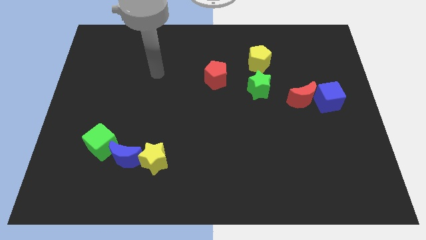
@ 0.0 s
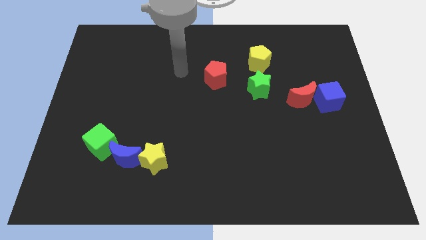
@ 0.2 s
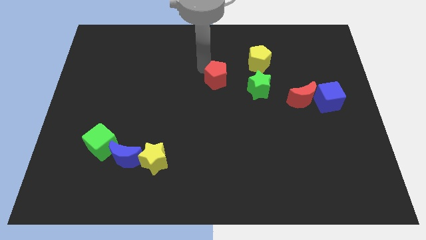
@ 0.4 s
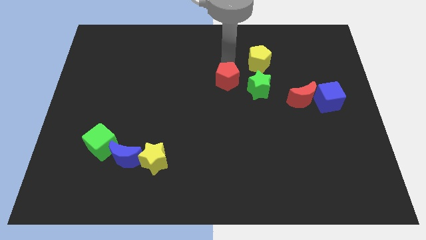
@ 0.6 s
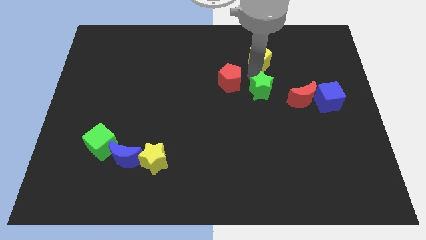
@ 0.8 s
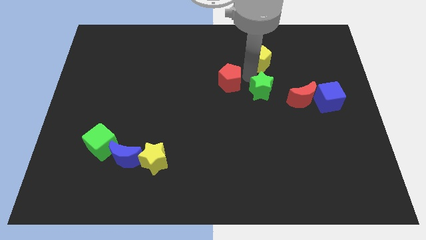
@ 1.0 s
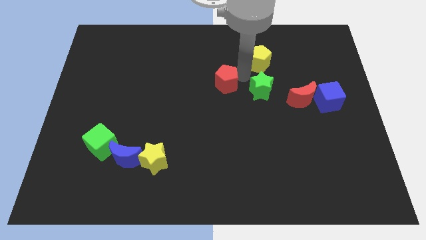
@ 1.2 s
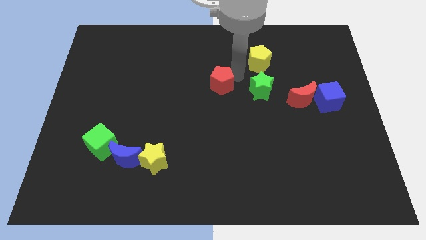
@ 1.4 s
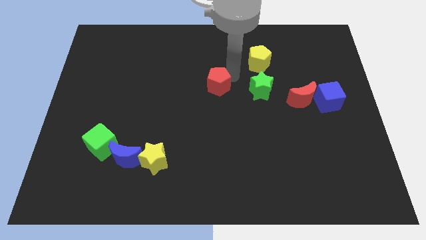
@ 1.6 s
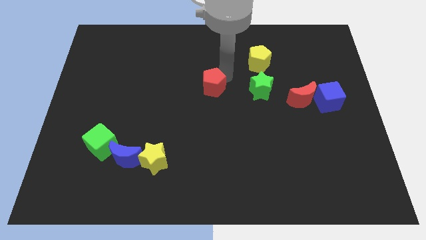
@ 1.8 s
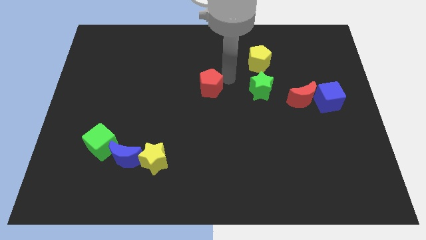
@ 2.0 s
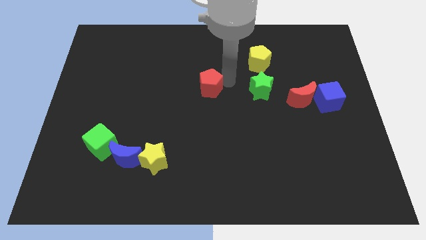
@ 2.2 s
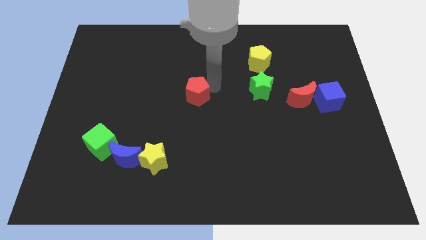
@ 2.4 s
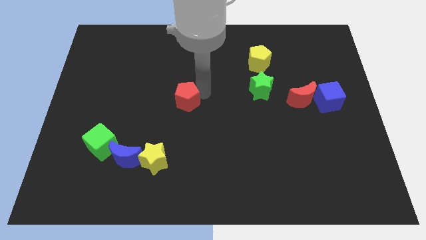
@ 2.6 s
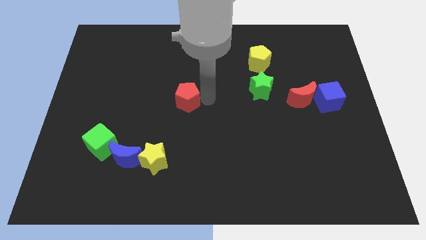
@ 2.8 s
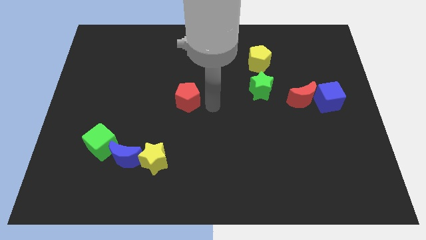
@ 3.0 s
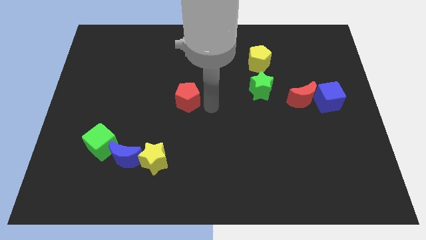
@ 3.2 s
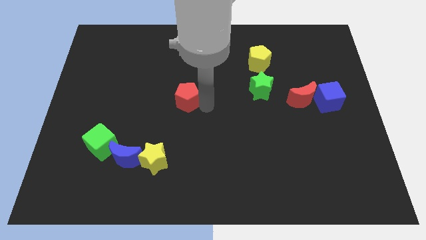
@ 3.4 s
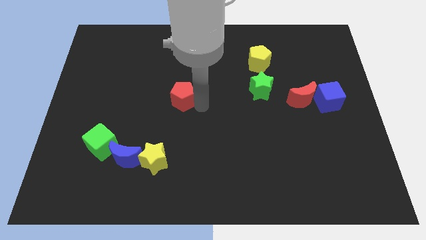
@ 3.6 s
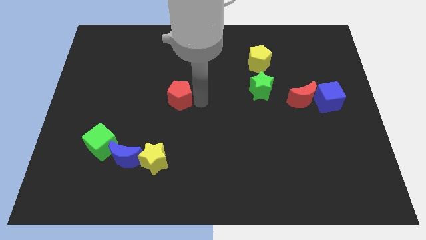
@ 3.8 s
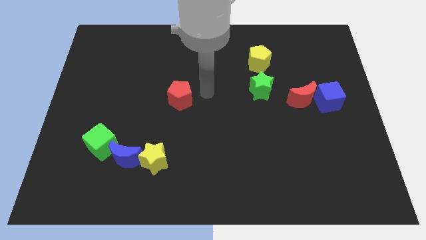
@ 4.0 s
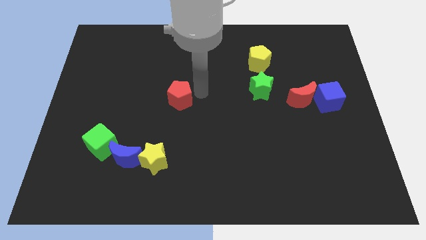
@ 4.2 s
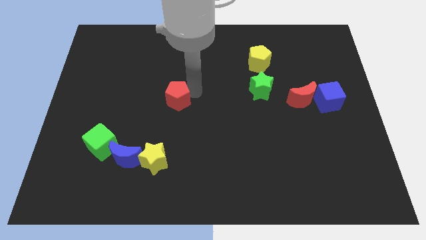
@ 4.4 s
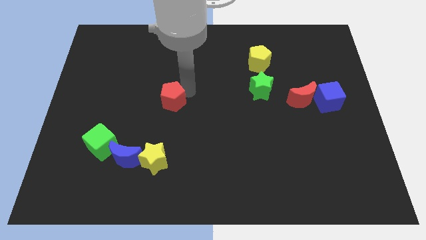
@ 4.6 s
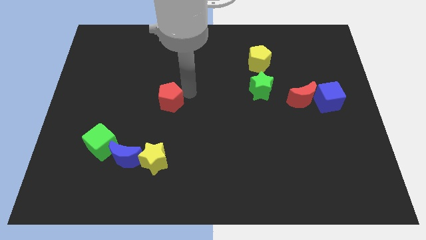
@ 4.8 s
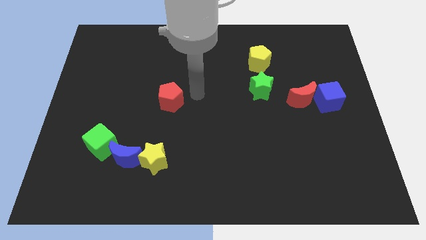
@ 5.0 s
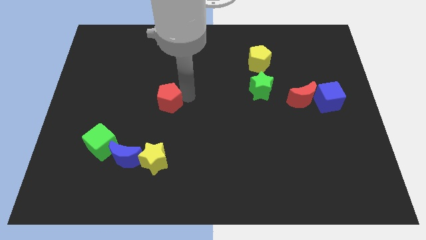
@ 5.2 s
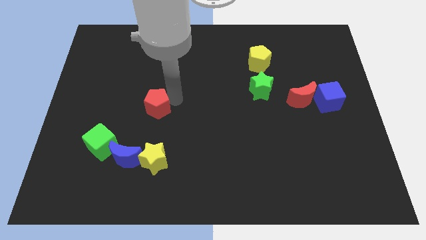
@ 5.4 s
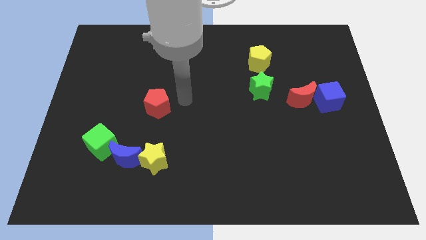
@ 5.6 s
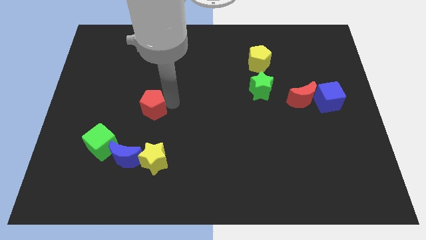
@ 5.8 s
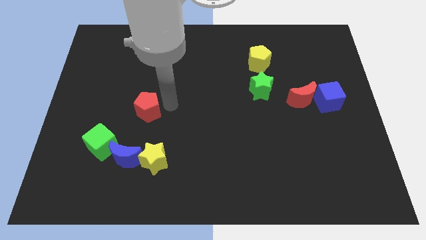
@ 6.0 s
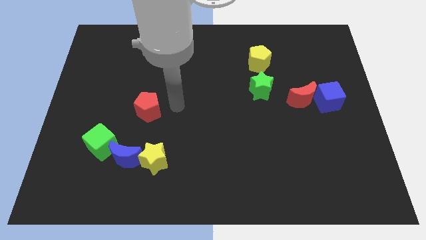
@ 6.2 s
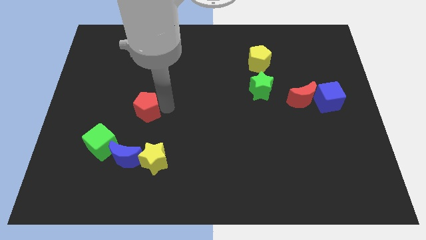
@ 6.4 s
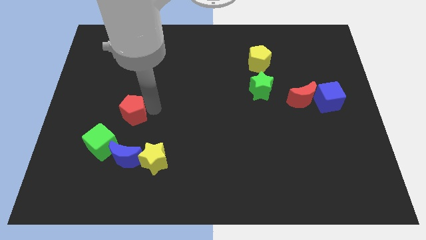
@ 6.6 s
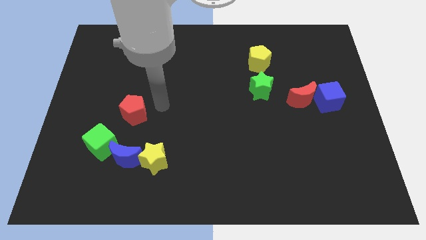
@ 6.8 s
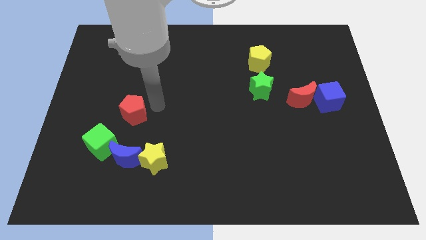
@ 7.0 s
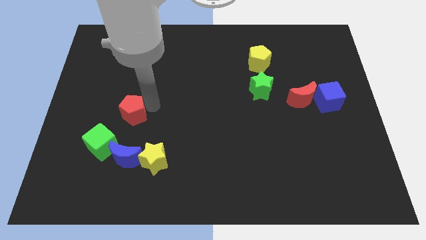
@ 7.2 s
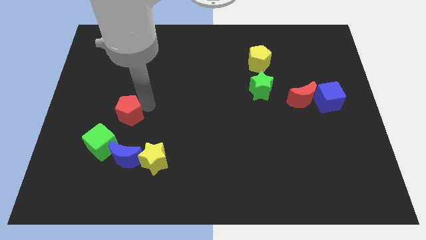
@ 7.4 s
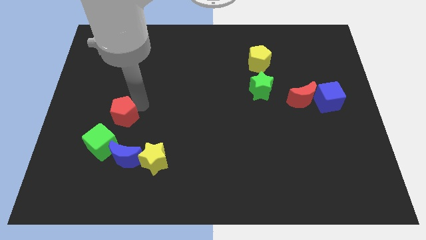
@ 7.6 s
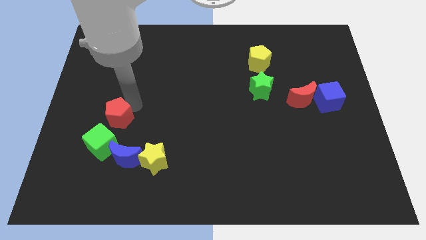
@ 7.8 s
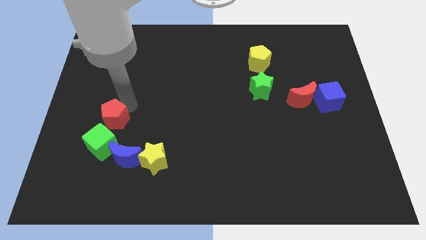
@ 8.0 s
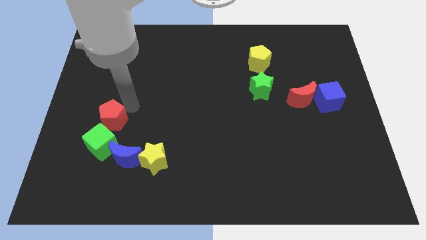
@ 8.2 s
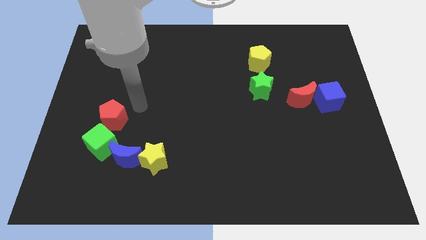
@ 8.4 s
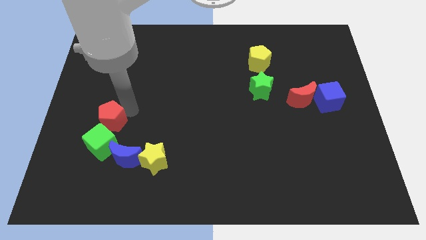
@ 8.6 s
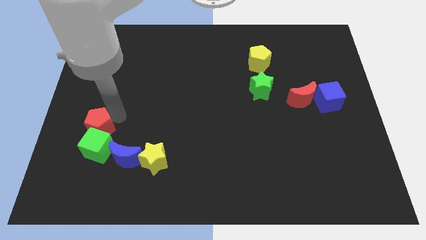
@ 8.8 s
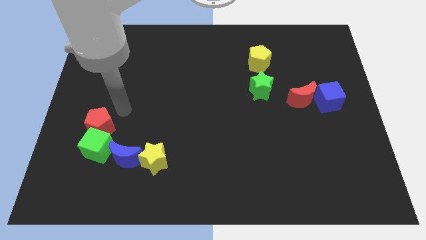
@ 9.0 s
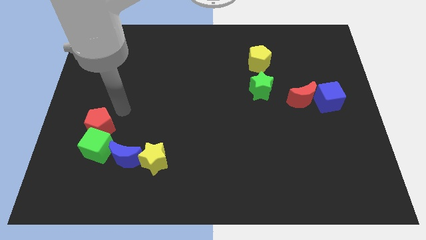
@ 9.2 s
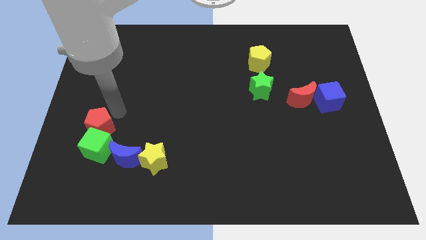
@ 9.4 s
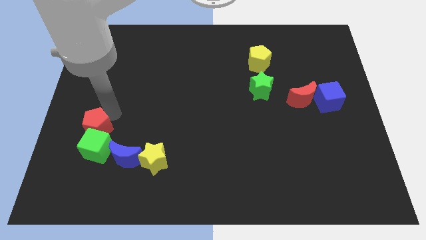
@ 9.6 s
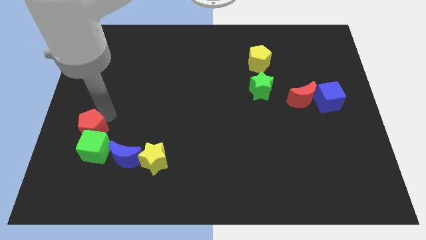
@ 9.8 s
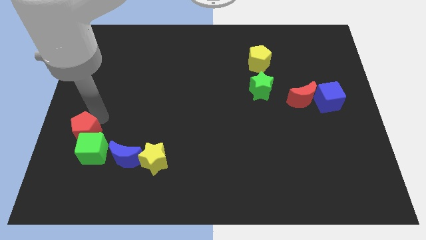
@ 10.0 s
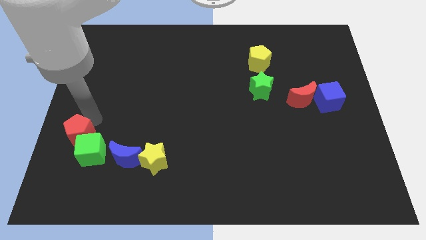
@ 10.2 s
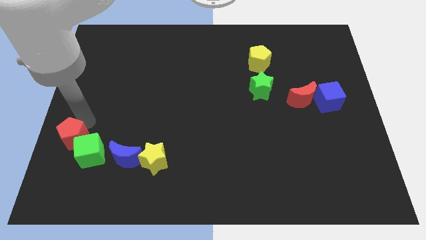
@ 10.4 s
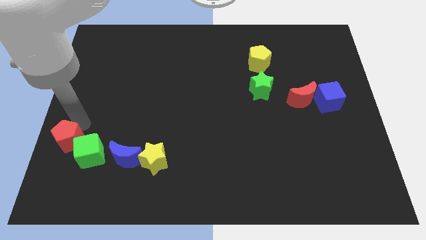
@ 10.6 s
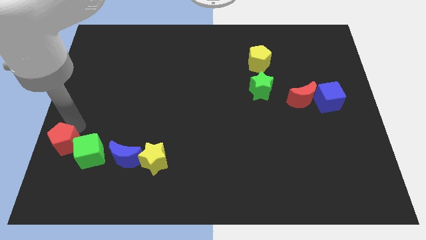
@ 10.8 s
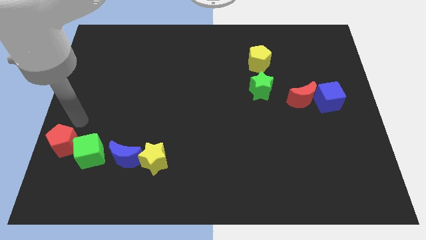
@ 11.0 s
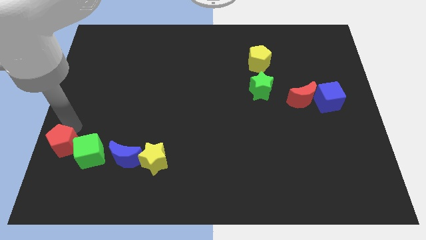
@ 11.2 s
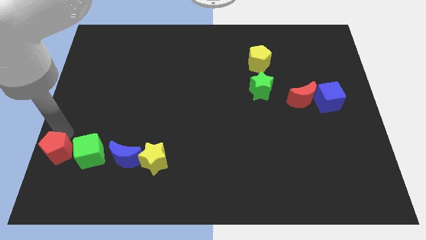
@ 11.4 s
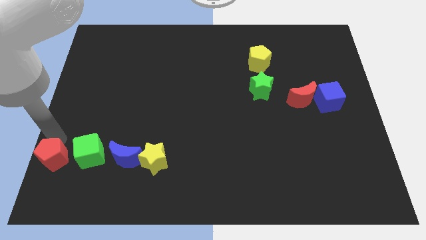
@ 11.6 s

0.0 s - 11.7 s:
push the red pentagon to the bottom left
